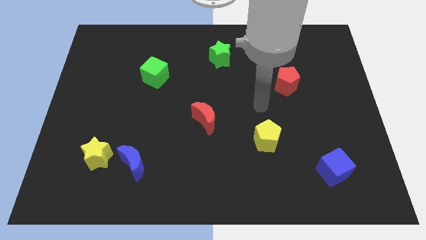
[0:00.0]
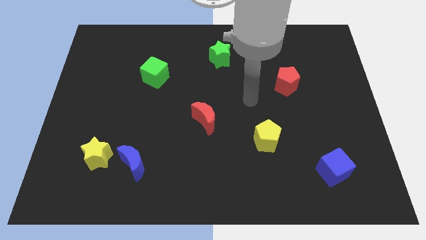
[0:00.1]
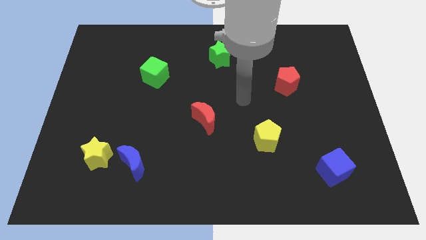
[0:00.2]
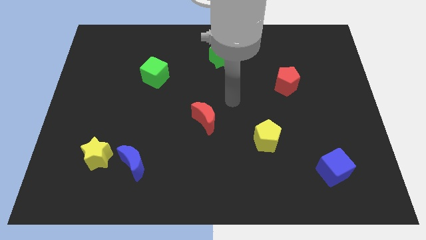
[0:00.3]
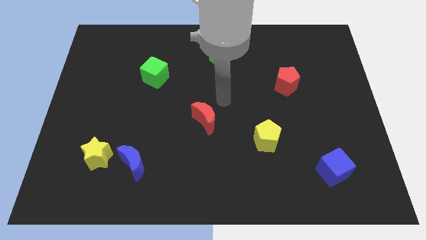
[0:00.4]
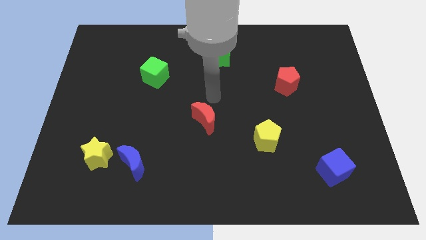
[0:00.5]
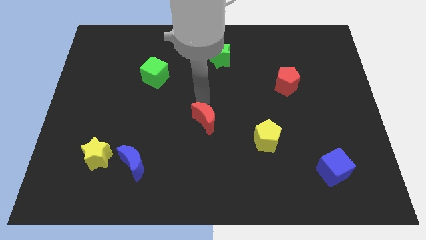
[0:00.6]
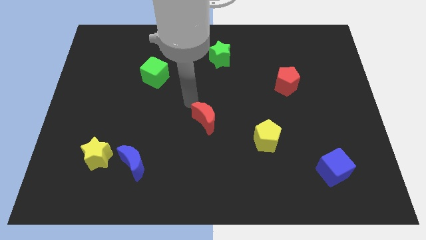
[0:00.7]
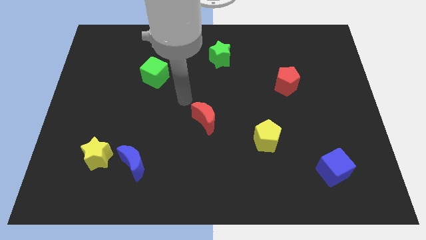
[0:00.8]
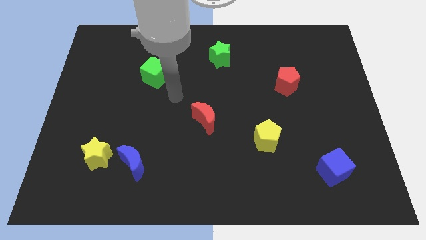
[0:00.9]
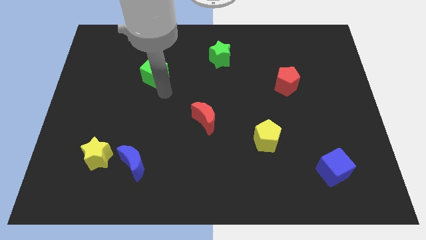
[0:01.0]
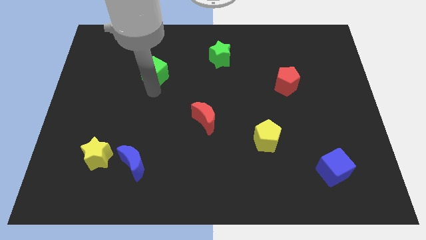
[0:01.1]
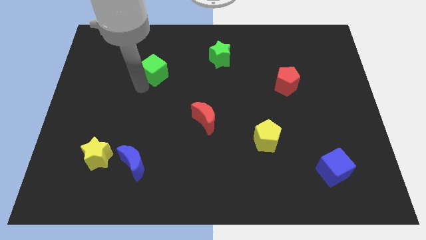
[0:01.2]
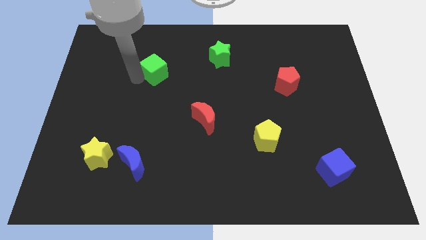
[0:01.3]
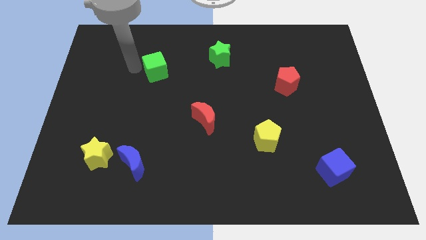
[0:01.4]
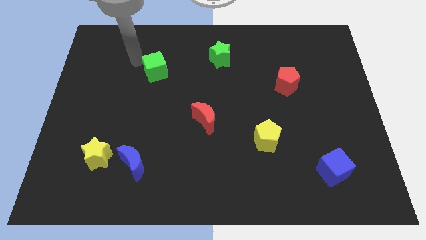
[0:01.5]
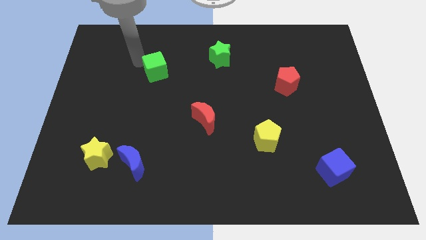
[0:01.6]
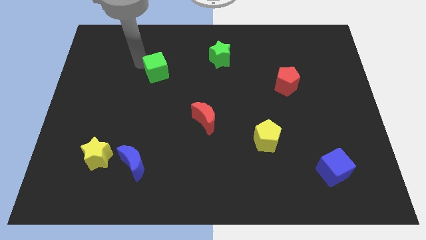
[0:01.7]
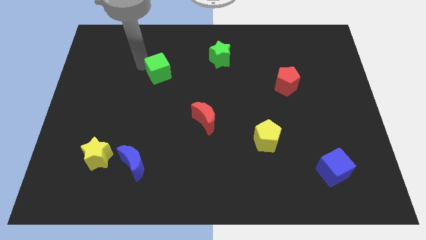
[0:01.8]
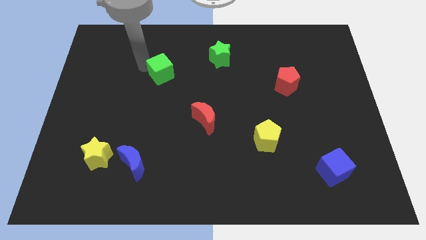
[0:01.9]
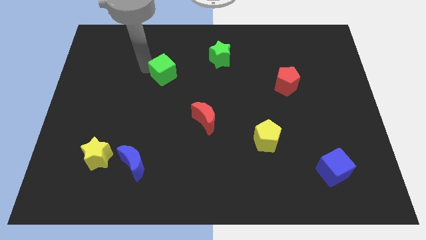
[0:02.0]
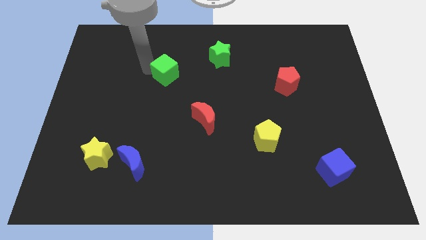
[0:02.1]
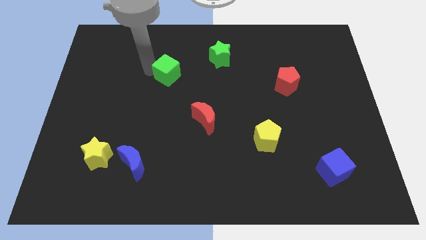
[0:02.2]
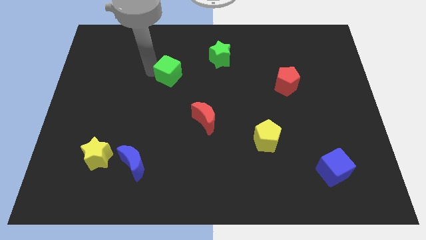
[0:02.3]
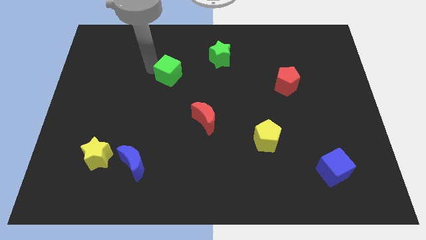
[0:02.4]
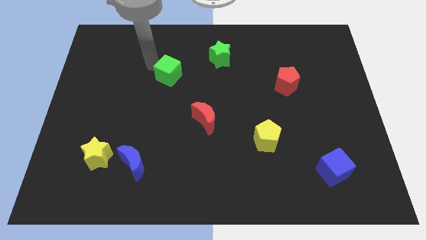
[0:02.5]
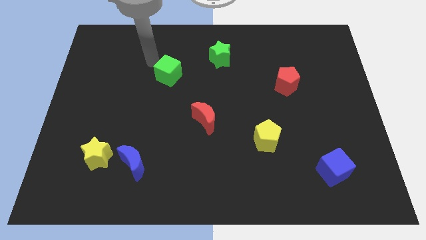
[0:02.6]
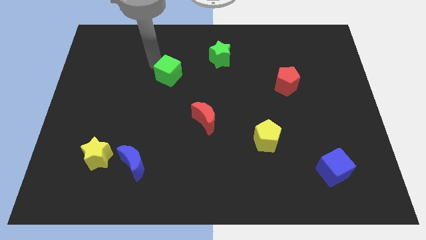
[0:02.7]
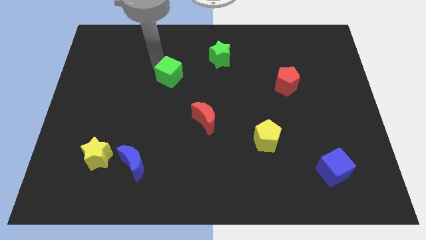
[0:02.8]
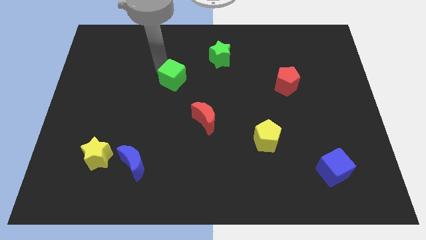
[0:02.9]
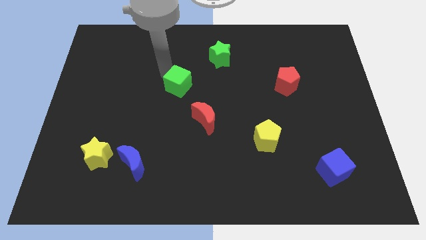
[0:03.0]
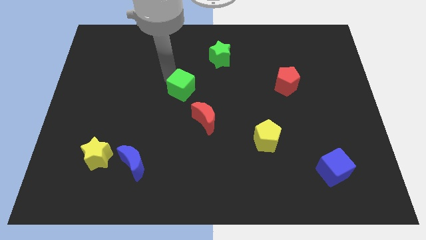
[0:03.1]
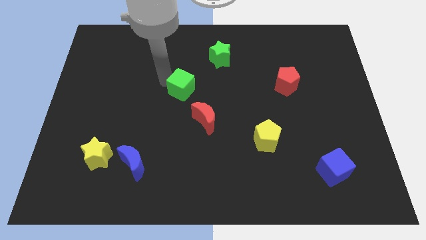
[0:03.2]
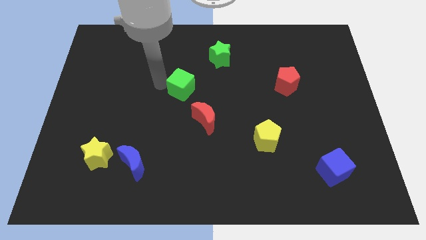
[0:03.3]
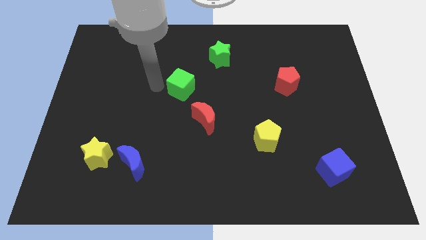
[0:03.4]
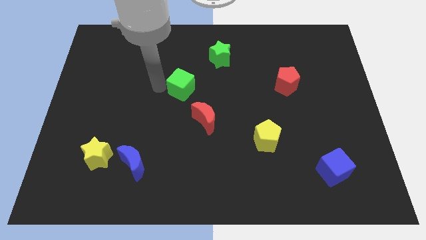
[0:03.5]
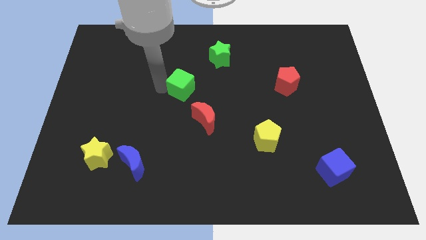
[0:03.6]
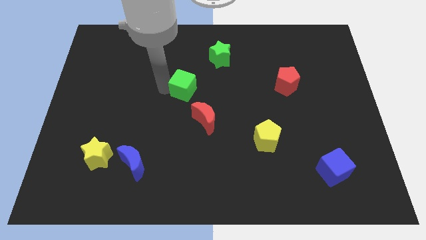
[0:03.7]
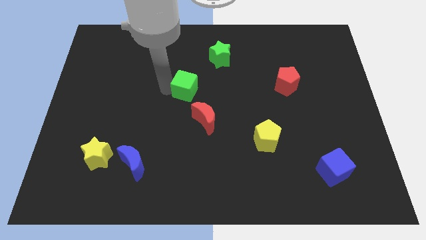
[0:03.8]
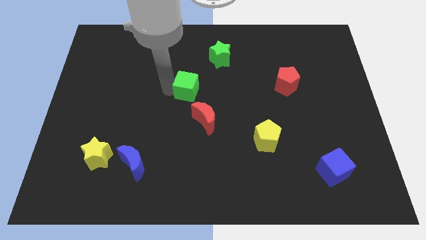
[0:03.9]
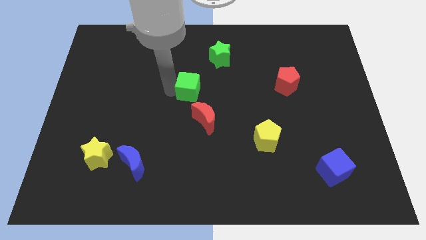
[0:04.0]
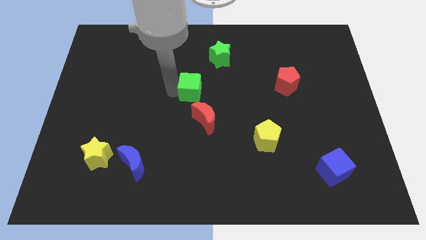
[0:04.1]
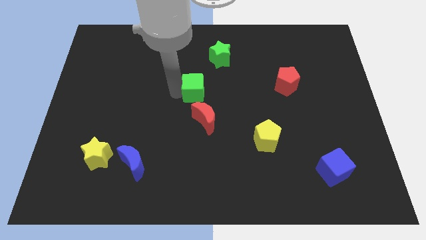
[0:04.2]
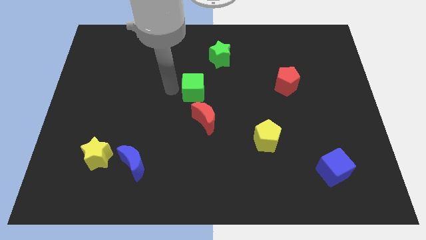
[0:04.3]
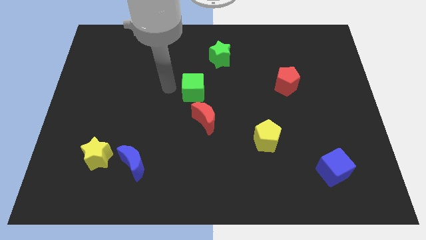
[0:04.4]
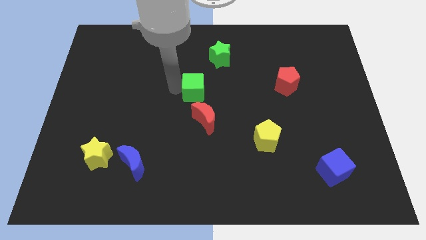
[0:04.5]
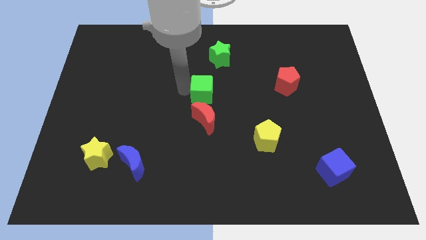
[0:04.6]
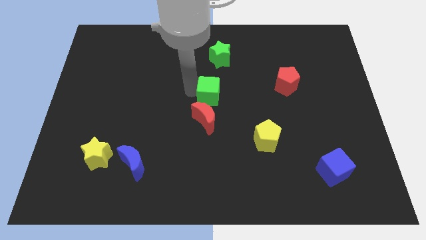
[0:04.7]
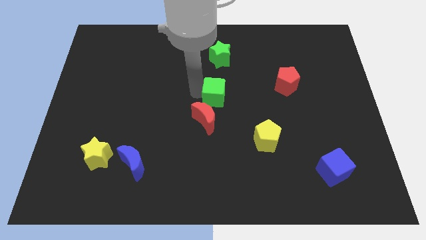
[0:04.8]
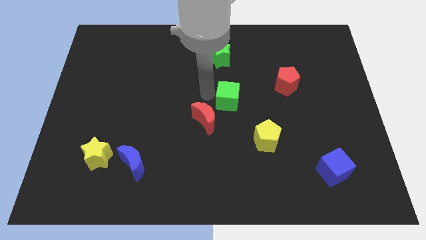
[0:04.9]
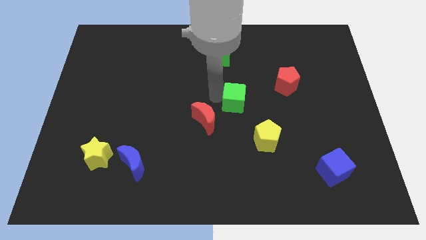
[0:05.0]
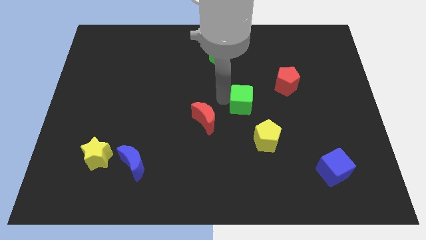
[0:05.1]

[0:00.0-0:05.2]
push the green cube above the yellow pentagon

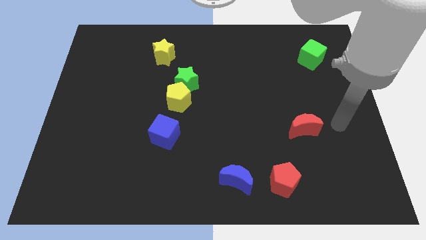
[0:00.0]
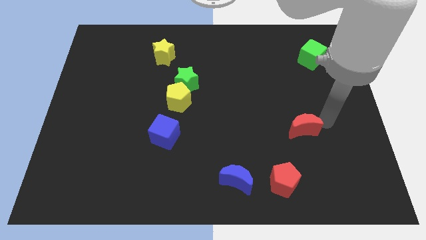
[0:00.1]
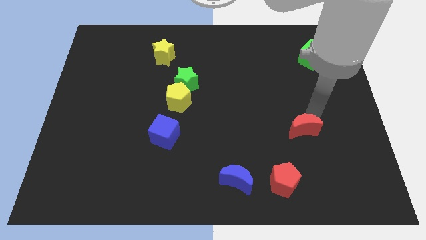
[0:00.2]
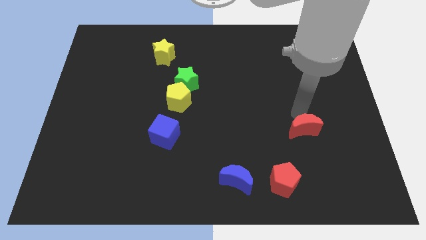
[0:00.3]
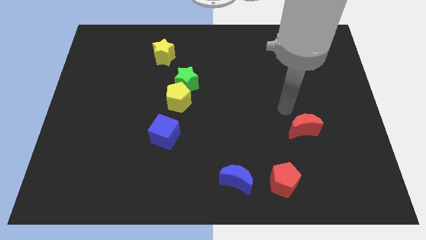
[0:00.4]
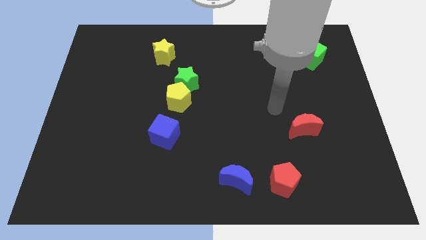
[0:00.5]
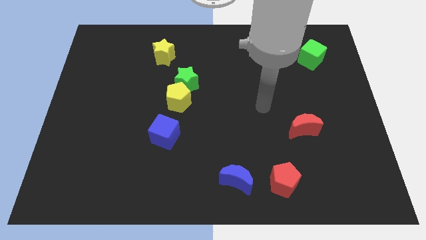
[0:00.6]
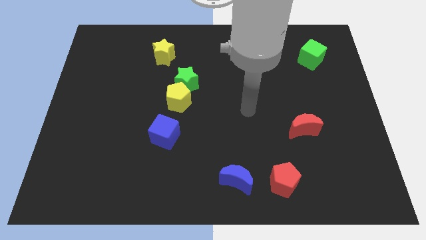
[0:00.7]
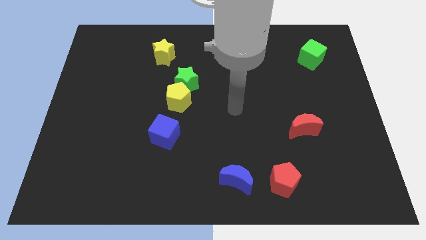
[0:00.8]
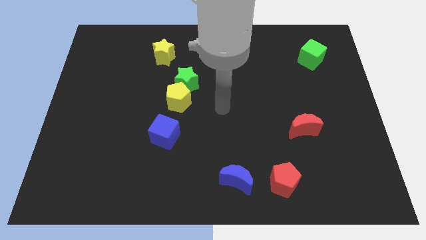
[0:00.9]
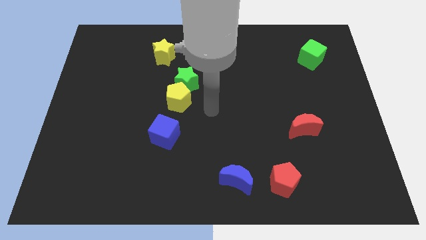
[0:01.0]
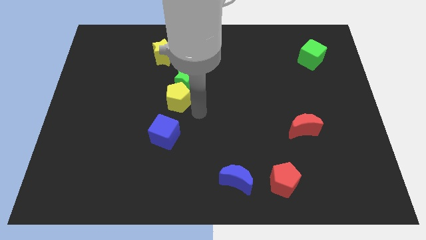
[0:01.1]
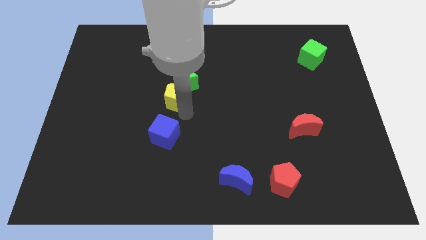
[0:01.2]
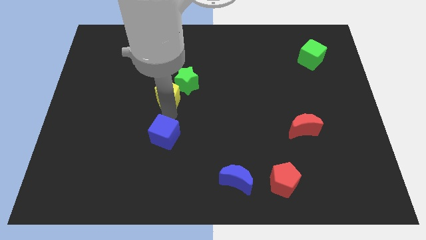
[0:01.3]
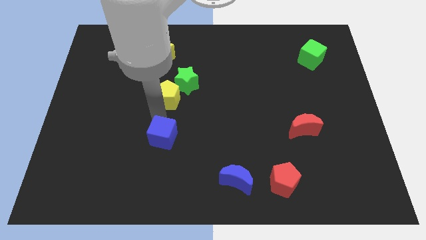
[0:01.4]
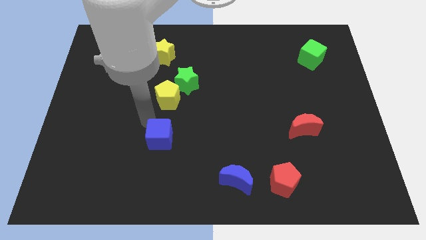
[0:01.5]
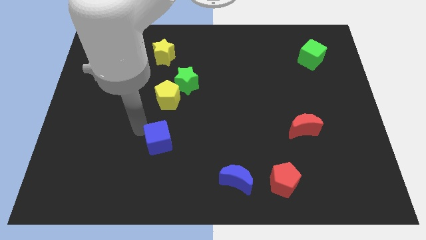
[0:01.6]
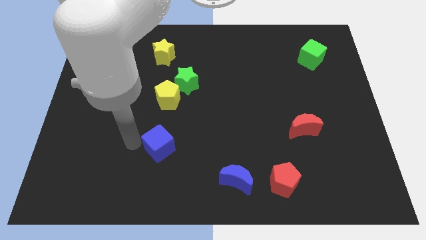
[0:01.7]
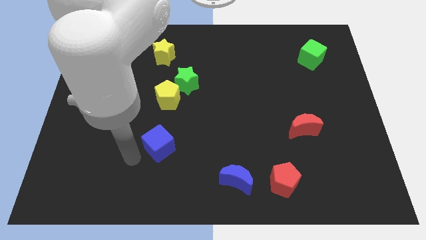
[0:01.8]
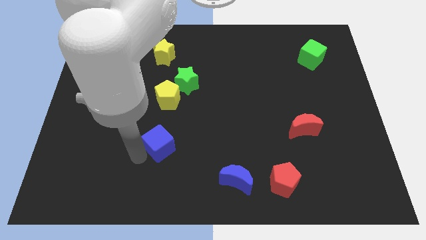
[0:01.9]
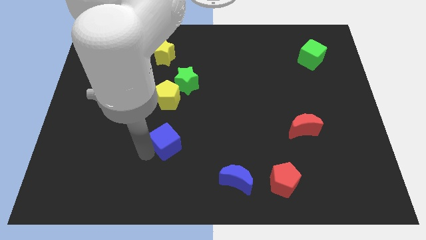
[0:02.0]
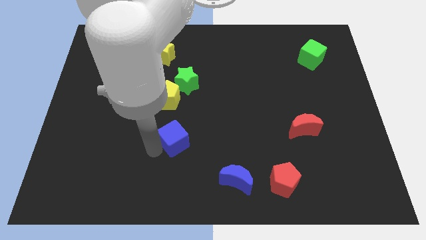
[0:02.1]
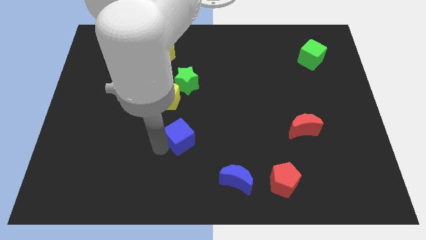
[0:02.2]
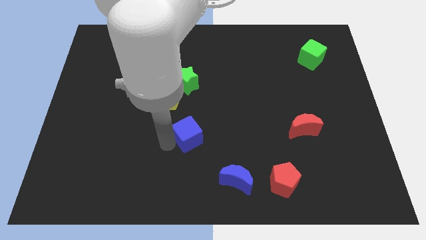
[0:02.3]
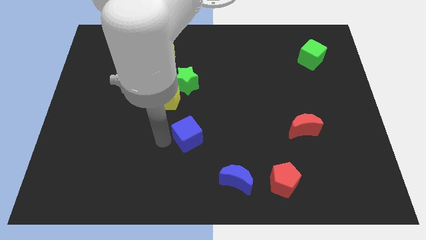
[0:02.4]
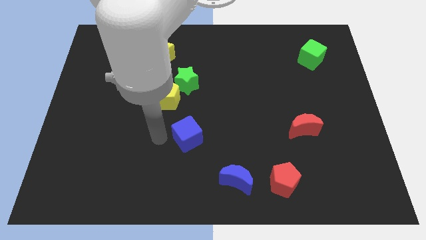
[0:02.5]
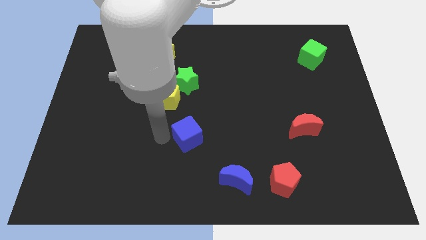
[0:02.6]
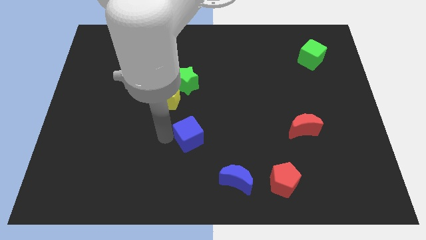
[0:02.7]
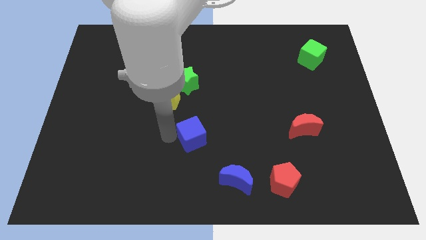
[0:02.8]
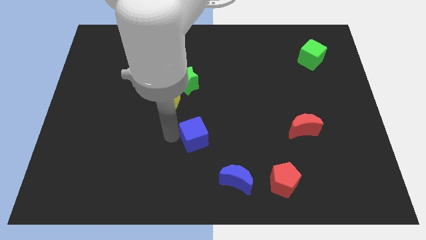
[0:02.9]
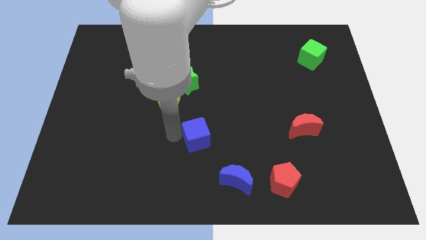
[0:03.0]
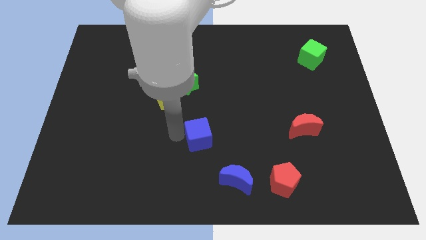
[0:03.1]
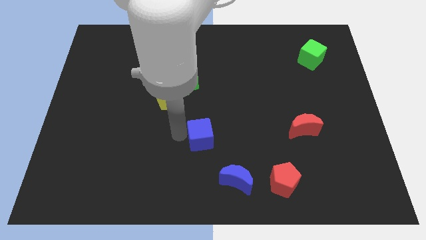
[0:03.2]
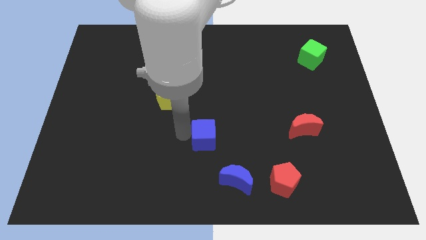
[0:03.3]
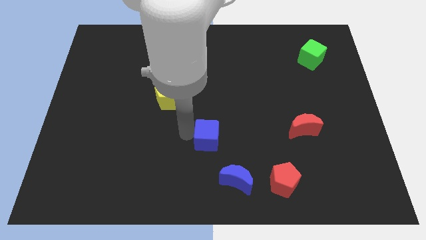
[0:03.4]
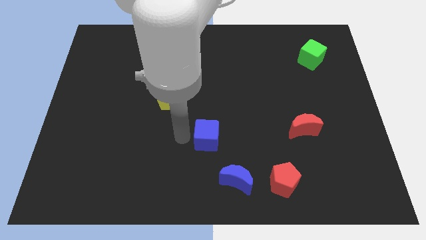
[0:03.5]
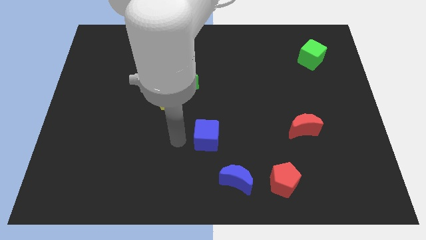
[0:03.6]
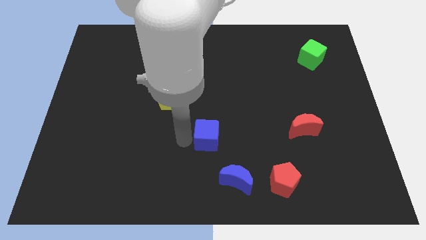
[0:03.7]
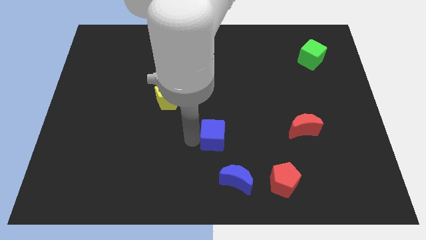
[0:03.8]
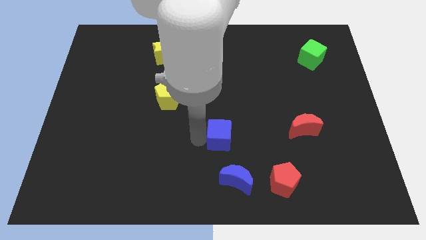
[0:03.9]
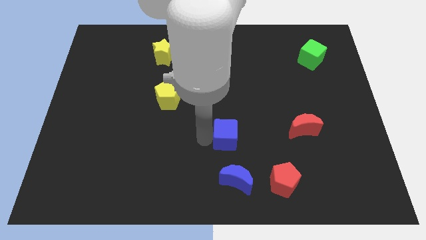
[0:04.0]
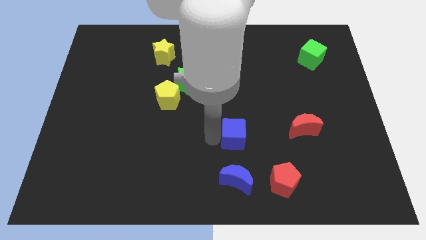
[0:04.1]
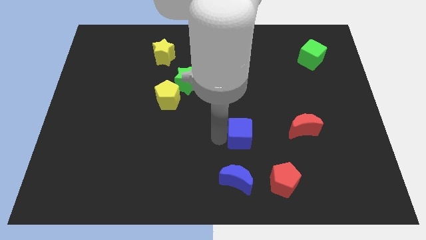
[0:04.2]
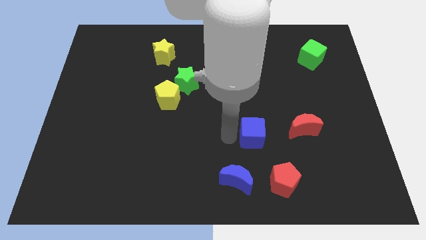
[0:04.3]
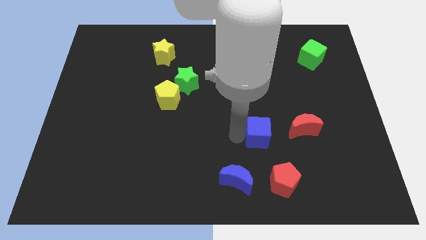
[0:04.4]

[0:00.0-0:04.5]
put the blue cube to the top side of the red pentagon
